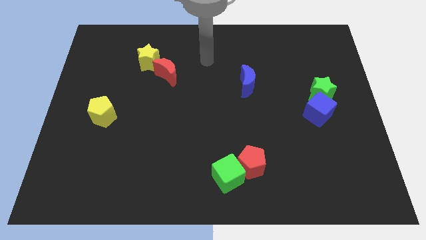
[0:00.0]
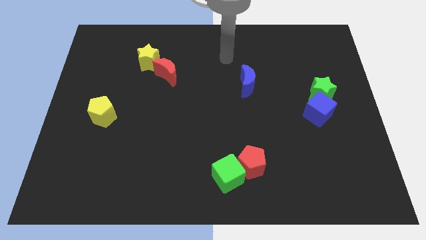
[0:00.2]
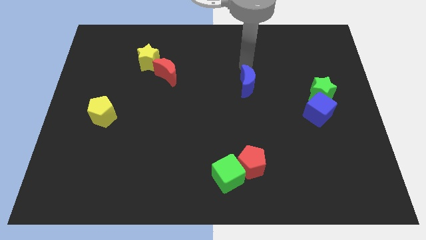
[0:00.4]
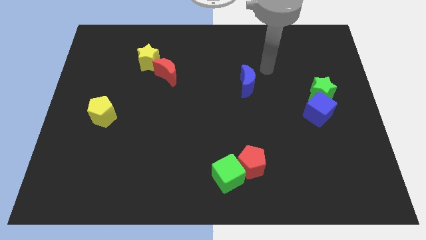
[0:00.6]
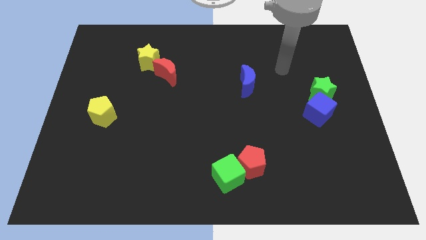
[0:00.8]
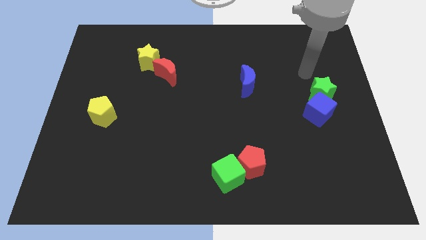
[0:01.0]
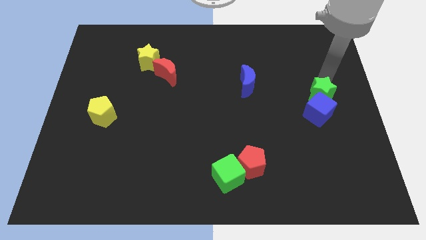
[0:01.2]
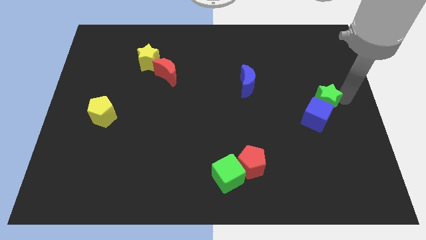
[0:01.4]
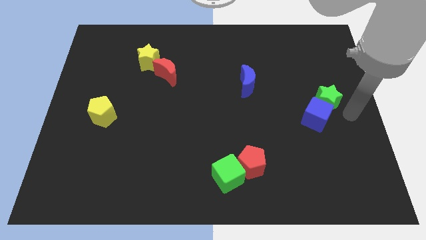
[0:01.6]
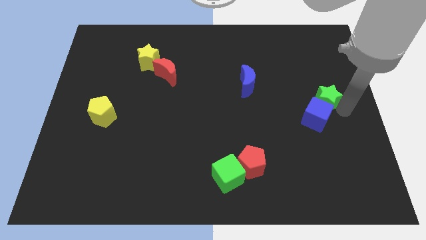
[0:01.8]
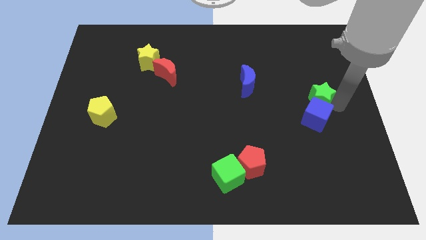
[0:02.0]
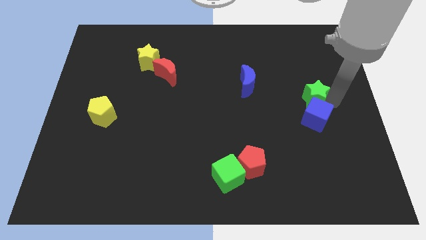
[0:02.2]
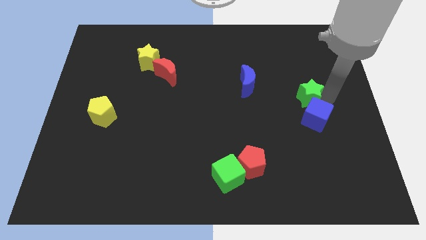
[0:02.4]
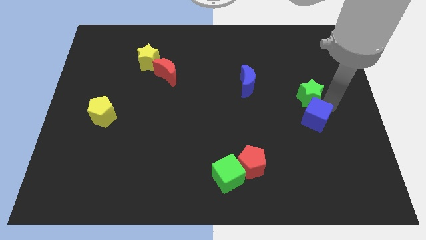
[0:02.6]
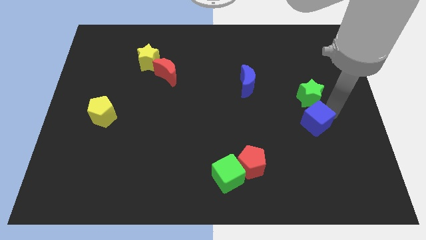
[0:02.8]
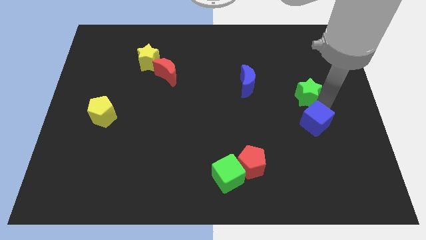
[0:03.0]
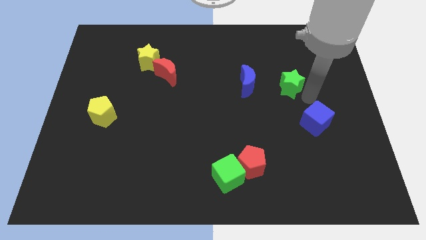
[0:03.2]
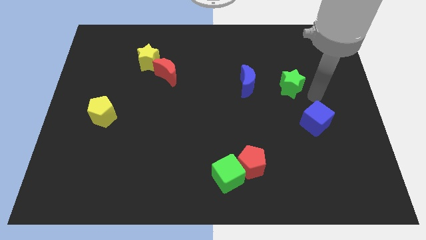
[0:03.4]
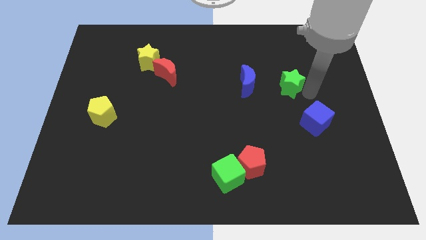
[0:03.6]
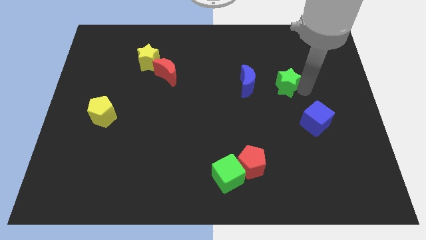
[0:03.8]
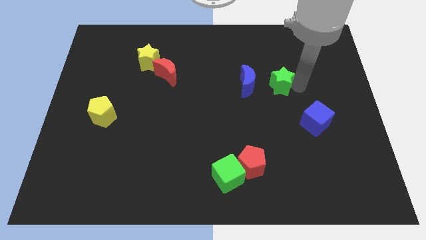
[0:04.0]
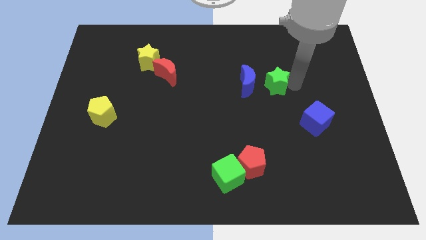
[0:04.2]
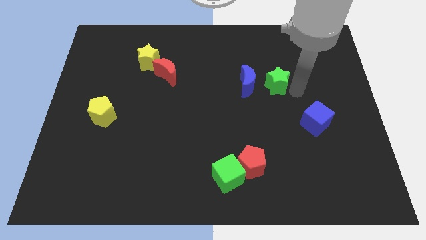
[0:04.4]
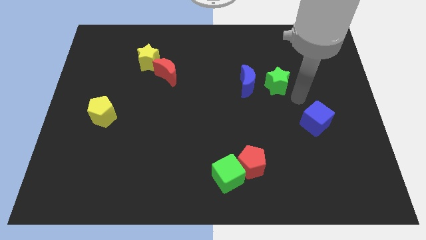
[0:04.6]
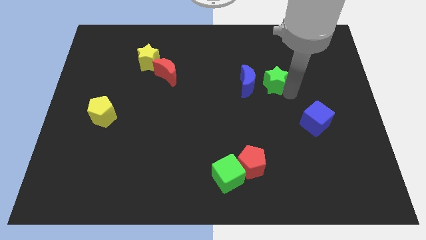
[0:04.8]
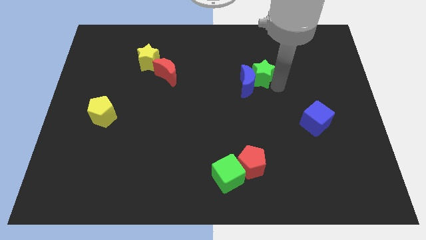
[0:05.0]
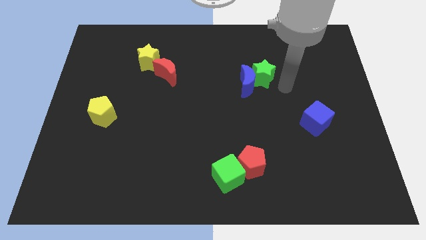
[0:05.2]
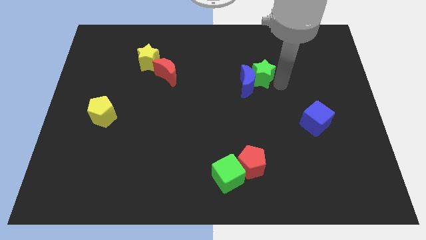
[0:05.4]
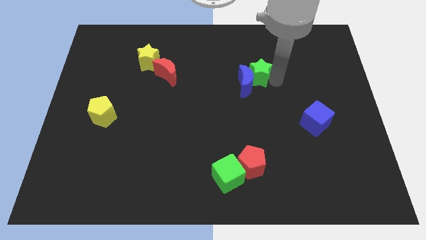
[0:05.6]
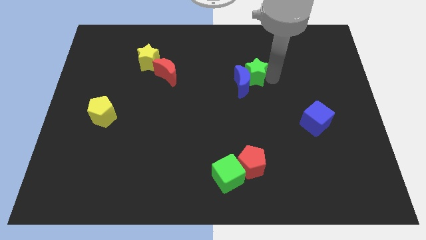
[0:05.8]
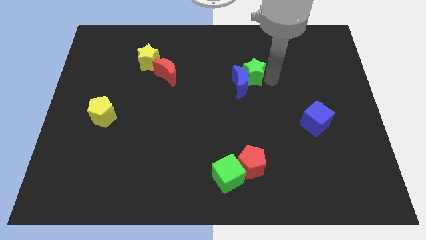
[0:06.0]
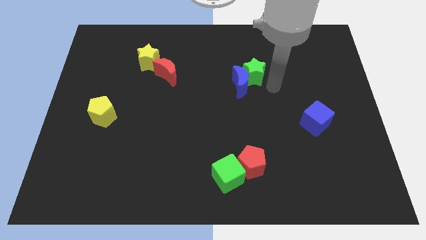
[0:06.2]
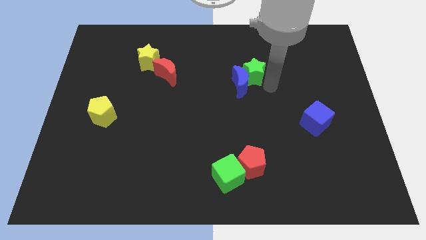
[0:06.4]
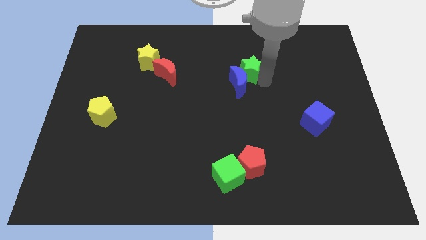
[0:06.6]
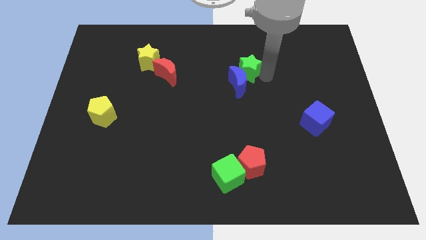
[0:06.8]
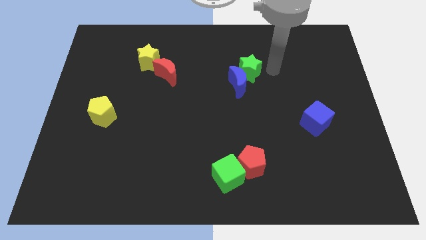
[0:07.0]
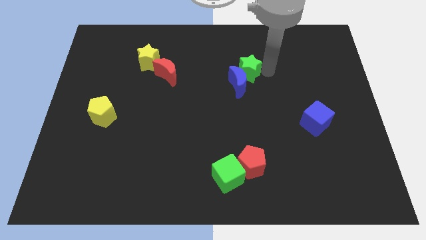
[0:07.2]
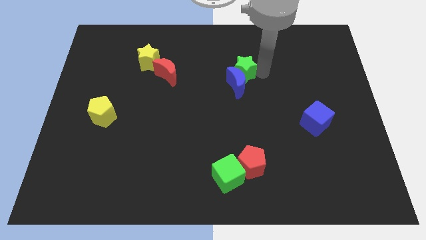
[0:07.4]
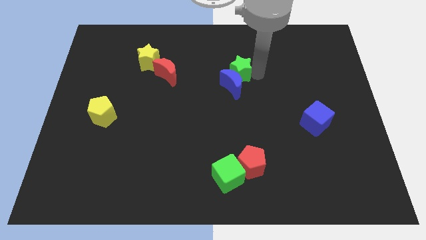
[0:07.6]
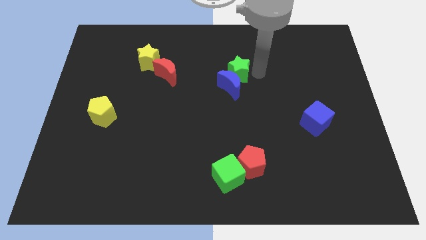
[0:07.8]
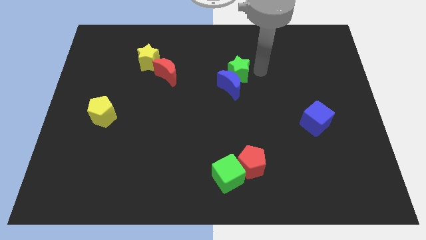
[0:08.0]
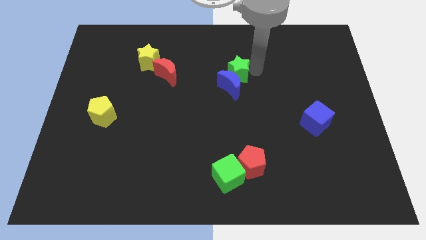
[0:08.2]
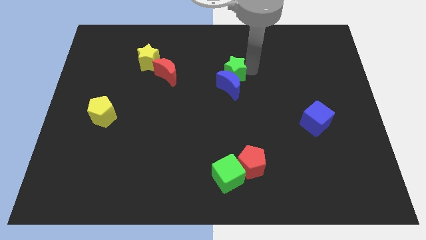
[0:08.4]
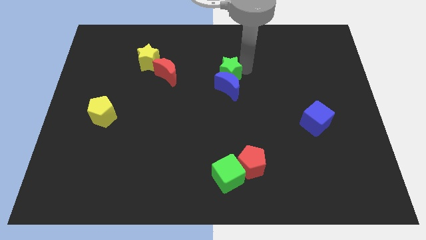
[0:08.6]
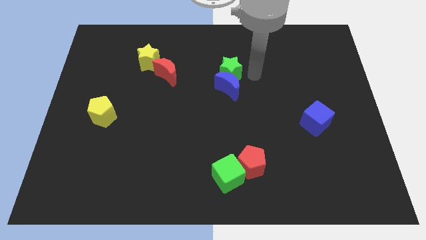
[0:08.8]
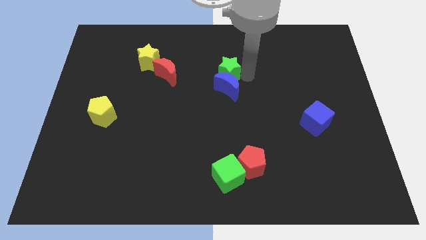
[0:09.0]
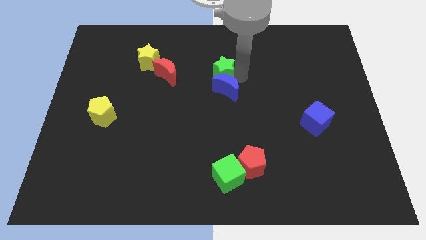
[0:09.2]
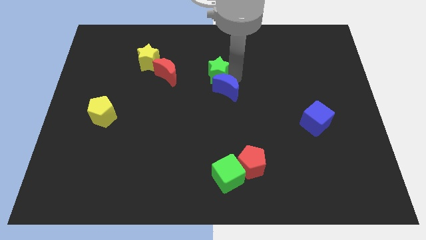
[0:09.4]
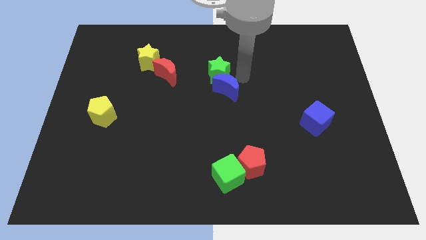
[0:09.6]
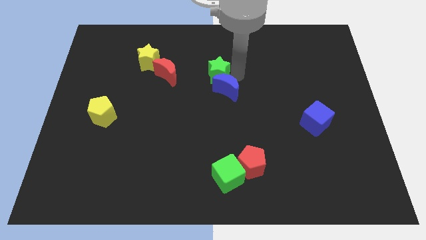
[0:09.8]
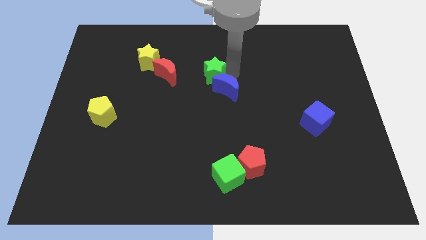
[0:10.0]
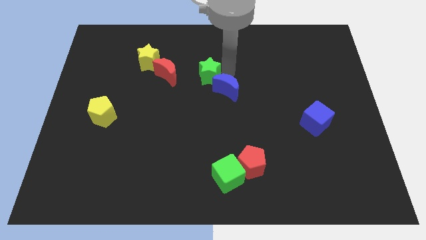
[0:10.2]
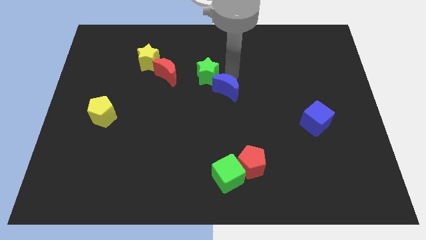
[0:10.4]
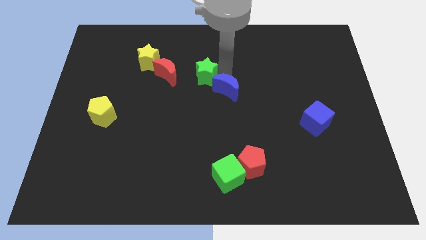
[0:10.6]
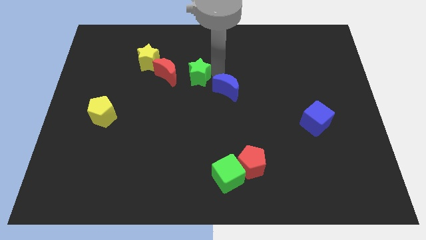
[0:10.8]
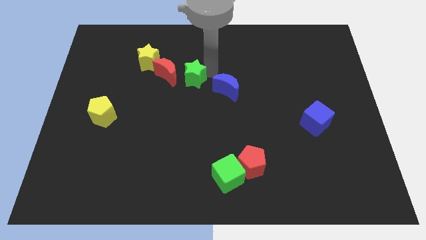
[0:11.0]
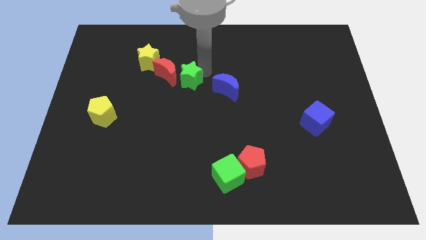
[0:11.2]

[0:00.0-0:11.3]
put the green star towards the red moon

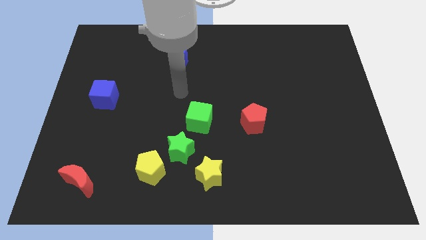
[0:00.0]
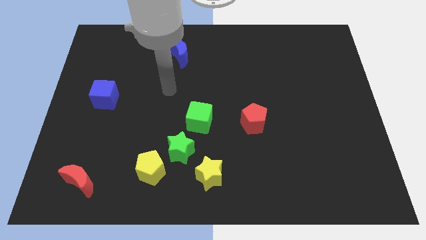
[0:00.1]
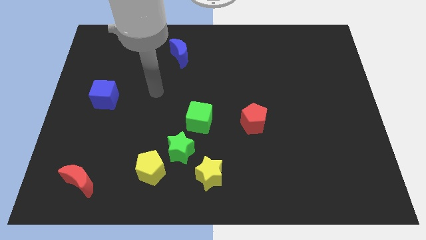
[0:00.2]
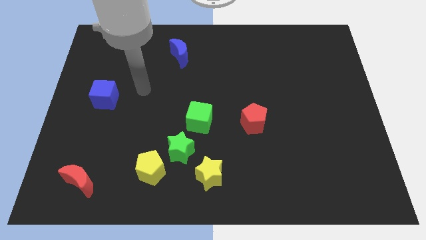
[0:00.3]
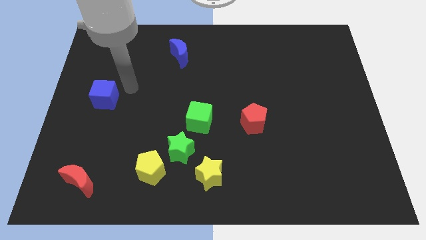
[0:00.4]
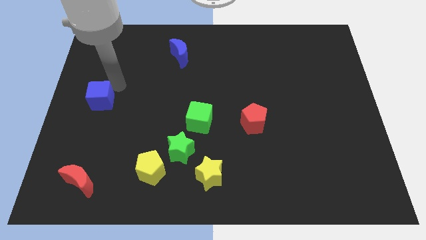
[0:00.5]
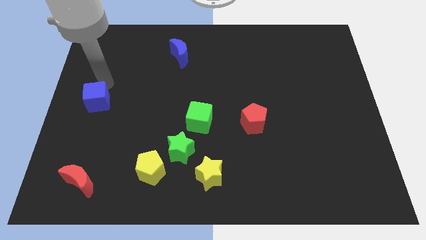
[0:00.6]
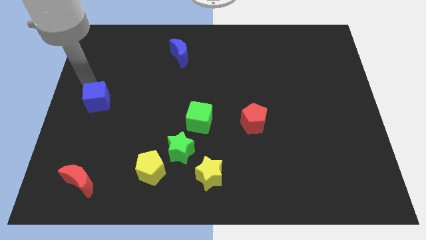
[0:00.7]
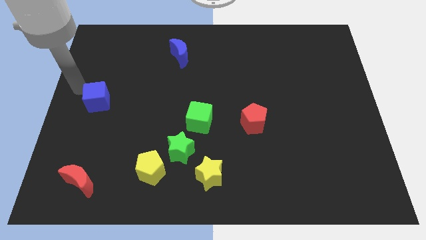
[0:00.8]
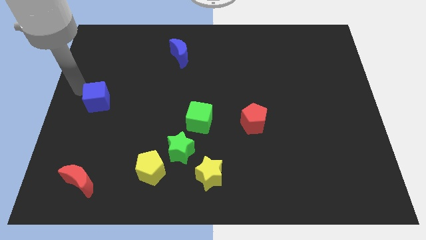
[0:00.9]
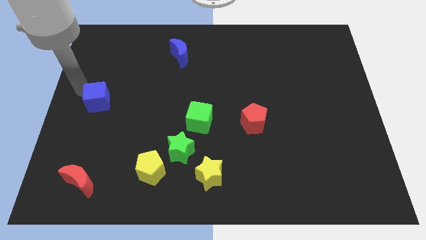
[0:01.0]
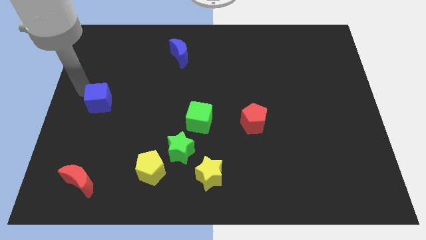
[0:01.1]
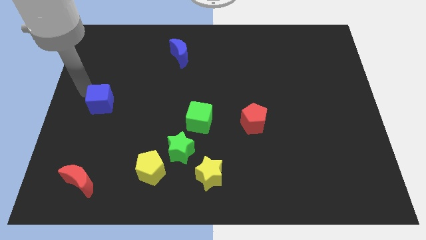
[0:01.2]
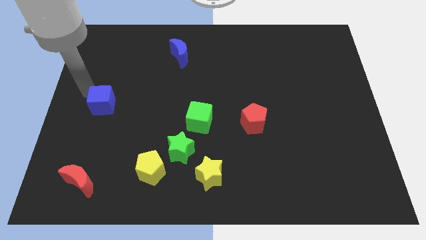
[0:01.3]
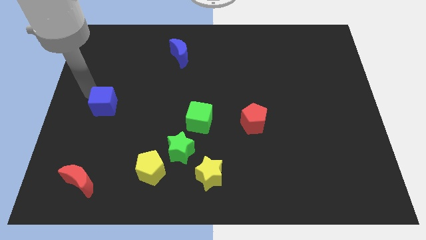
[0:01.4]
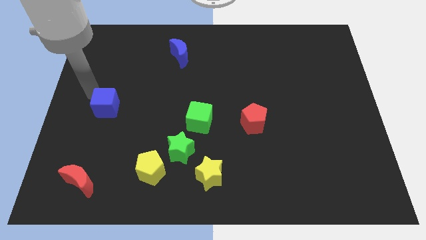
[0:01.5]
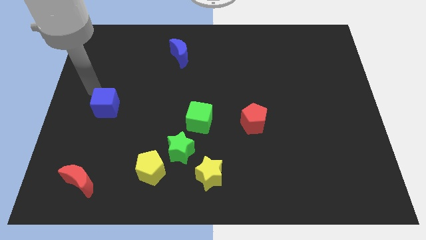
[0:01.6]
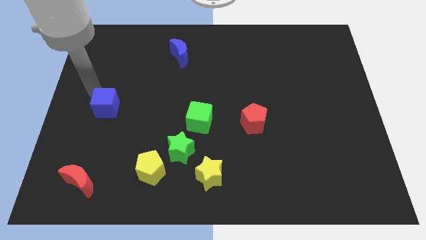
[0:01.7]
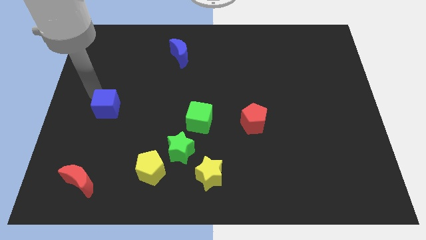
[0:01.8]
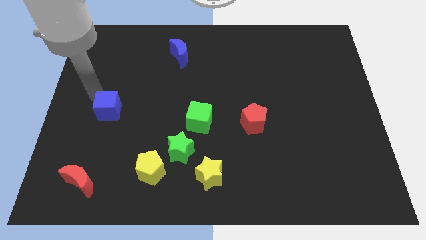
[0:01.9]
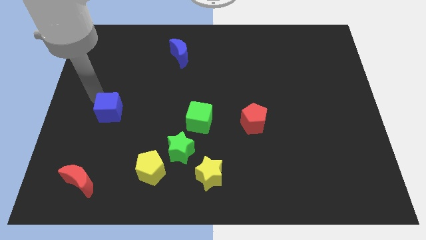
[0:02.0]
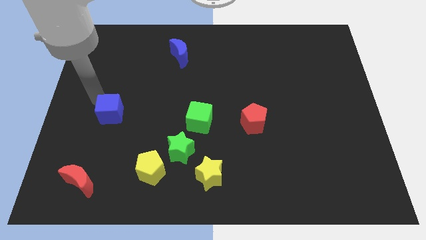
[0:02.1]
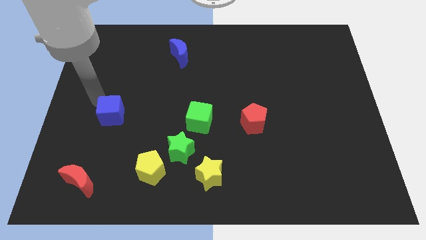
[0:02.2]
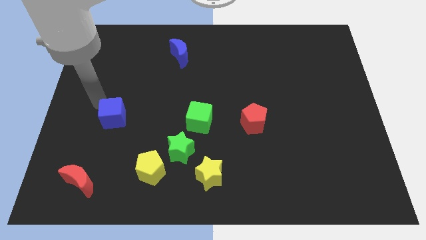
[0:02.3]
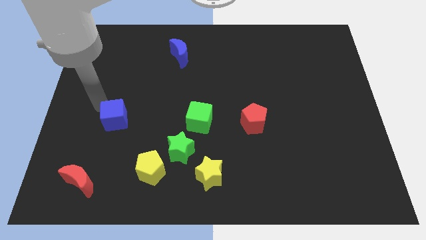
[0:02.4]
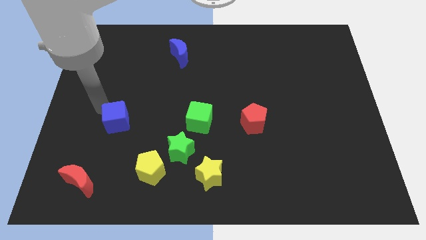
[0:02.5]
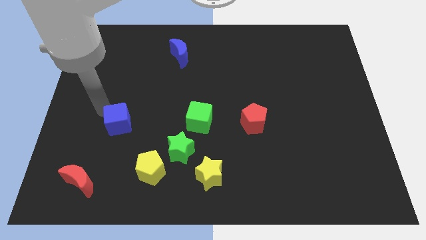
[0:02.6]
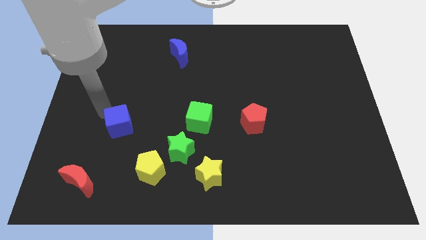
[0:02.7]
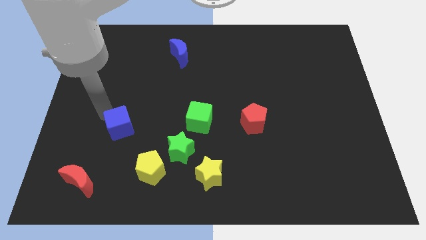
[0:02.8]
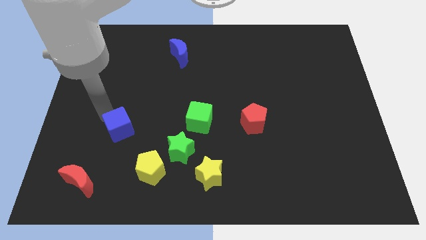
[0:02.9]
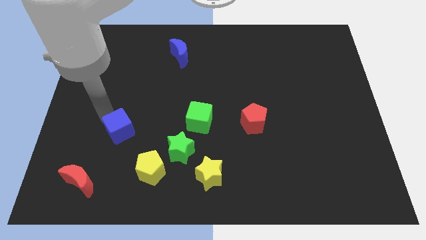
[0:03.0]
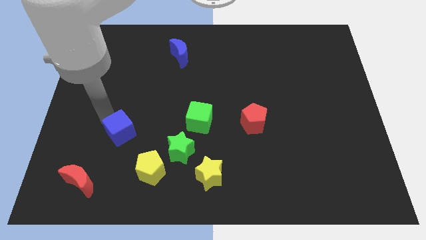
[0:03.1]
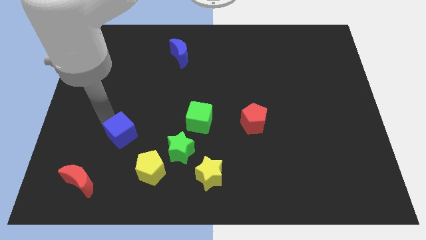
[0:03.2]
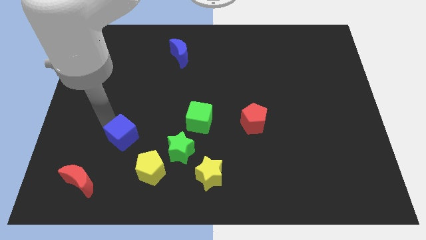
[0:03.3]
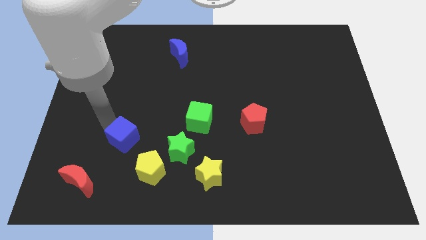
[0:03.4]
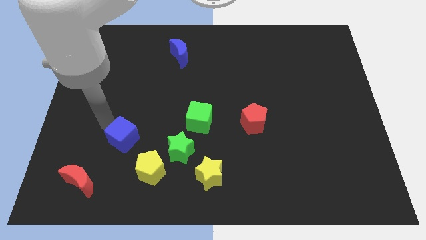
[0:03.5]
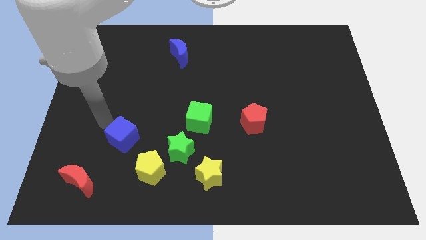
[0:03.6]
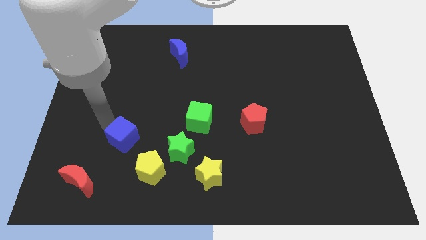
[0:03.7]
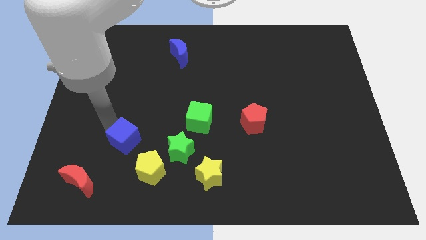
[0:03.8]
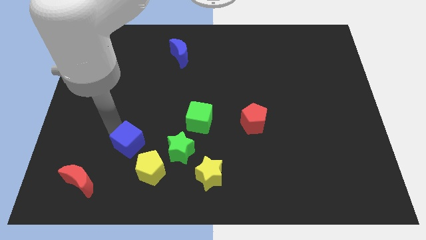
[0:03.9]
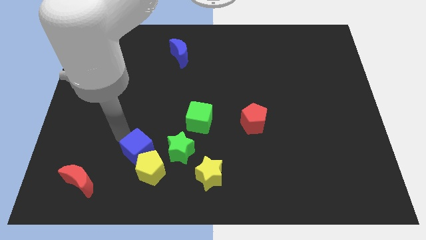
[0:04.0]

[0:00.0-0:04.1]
put the blue cube next to the yellow pentagon
